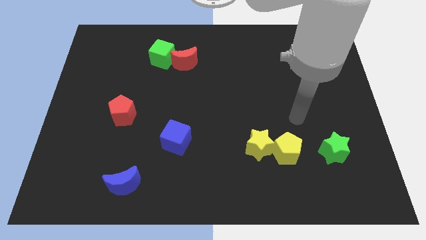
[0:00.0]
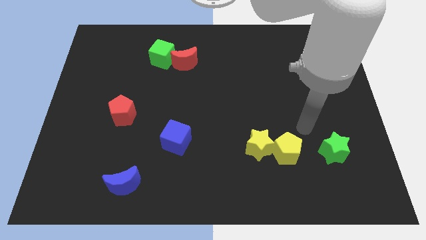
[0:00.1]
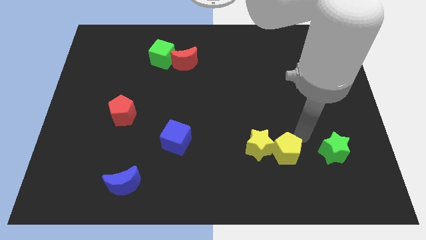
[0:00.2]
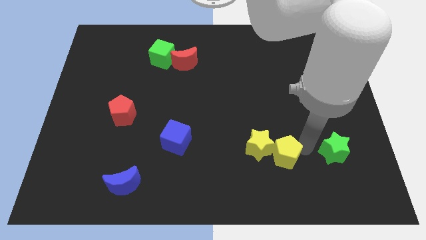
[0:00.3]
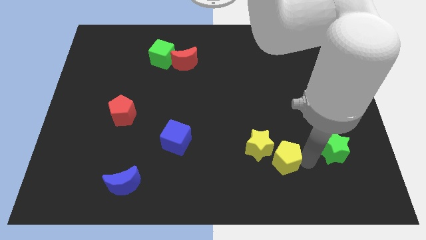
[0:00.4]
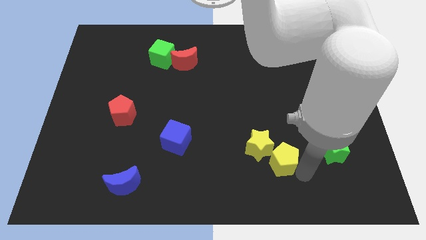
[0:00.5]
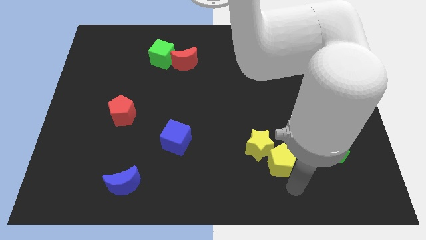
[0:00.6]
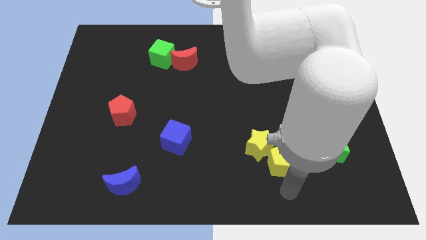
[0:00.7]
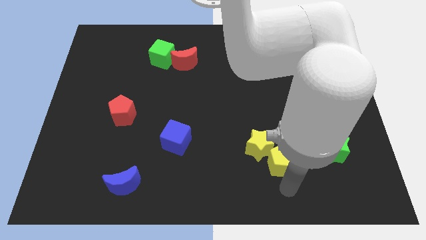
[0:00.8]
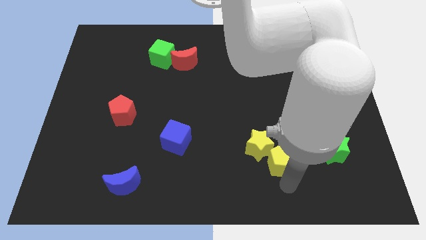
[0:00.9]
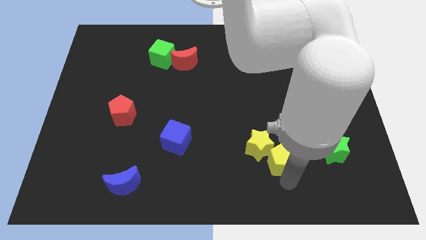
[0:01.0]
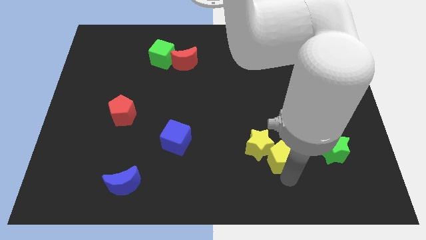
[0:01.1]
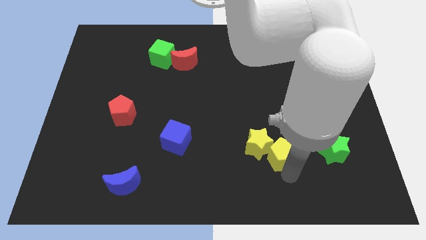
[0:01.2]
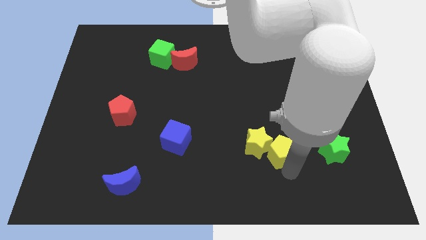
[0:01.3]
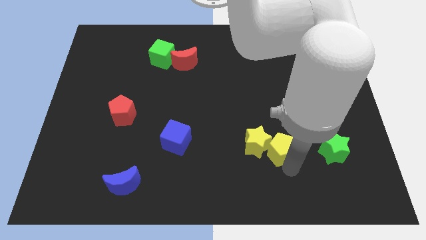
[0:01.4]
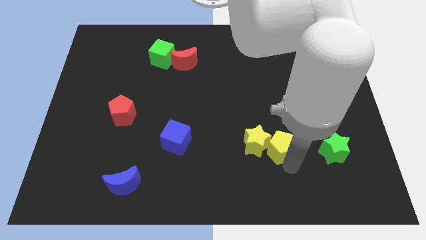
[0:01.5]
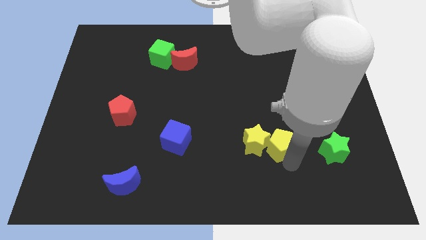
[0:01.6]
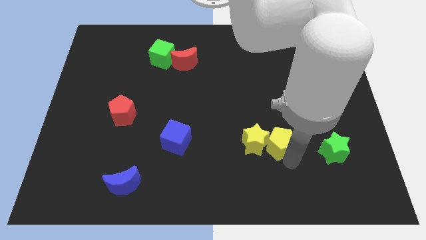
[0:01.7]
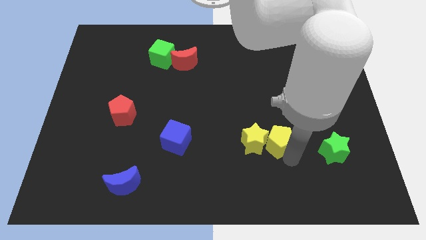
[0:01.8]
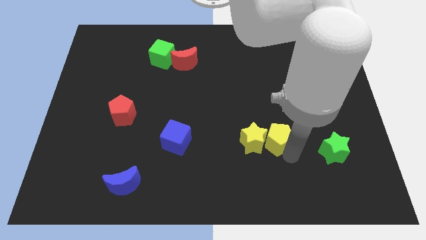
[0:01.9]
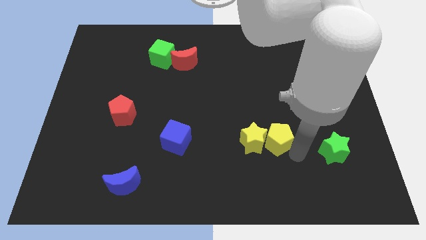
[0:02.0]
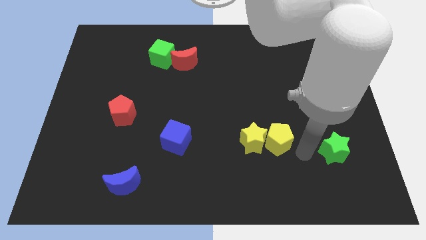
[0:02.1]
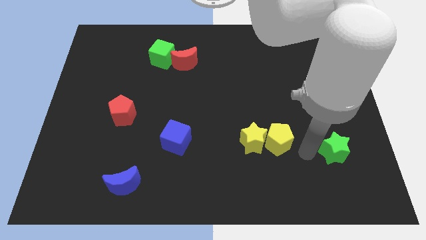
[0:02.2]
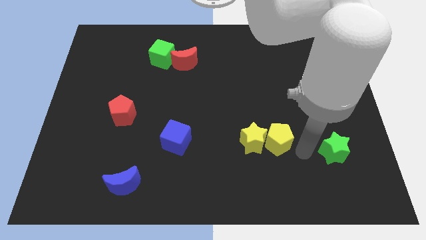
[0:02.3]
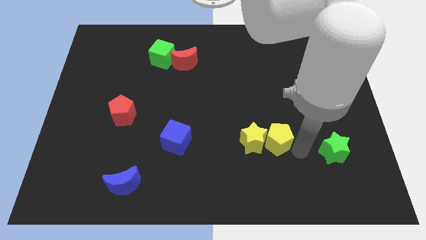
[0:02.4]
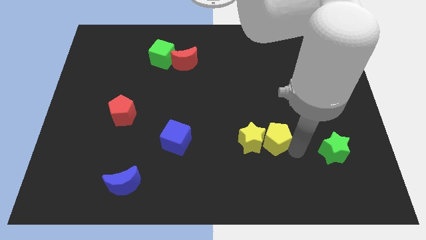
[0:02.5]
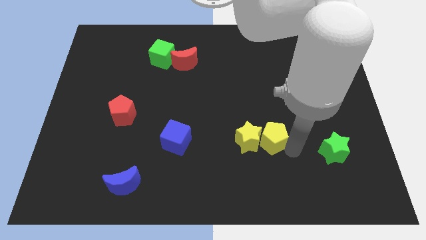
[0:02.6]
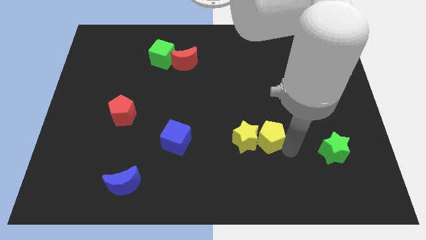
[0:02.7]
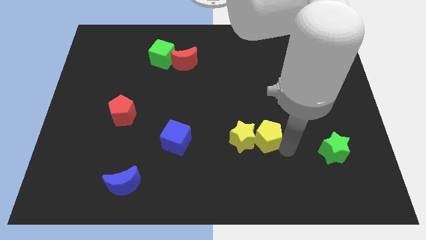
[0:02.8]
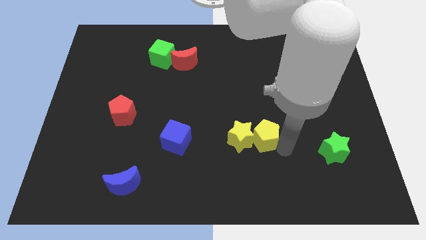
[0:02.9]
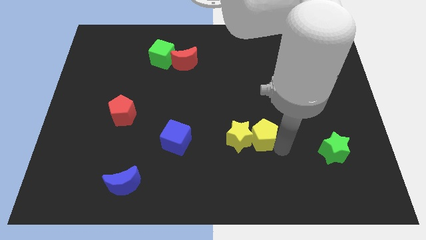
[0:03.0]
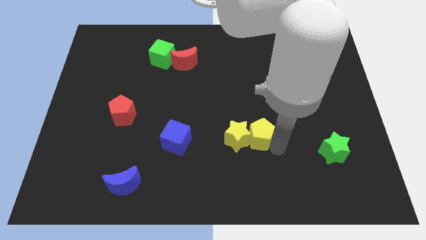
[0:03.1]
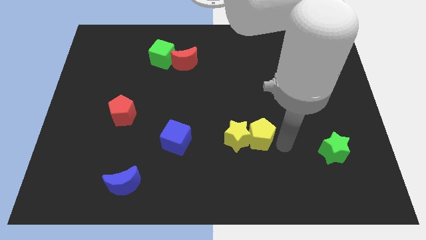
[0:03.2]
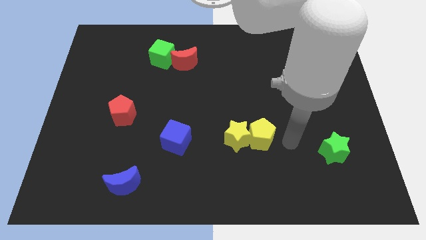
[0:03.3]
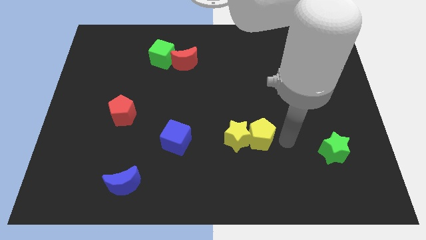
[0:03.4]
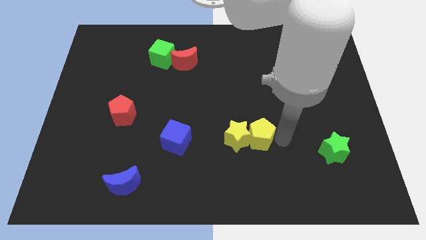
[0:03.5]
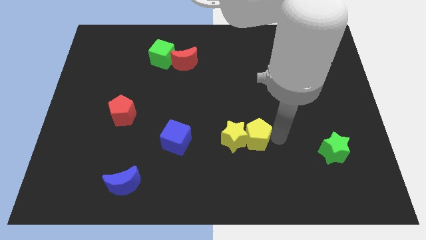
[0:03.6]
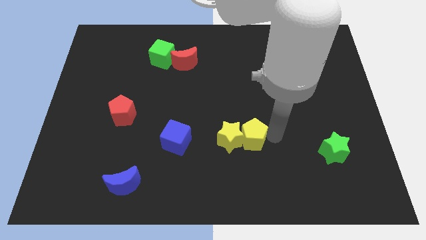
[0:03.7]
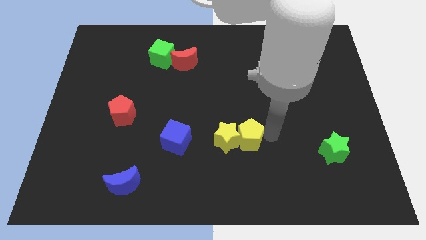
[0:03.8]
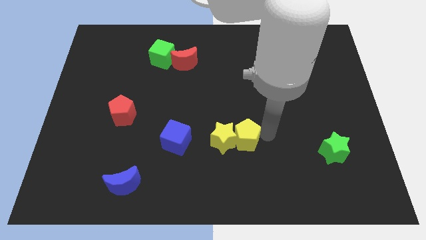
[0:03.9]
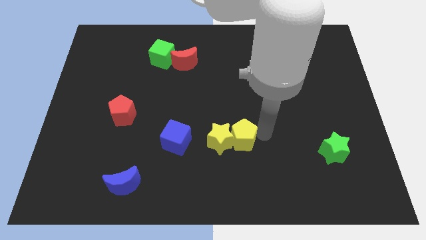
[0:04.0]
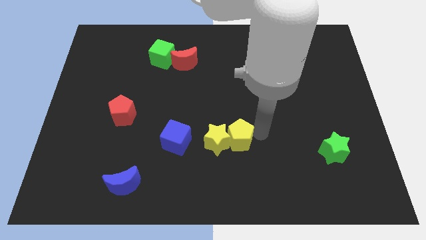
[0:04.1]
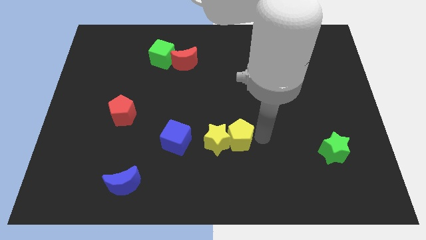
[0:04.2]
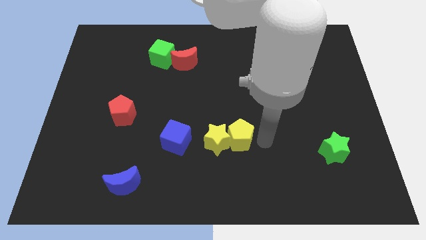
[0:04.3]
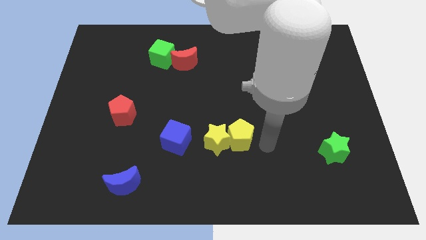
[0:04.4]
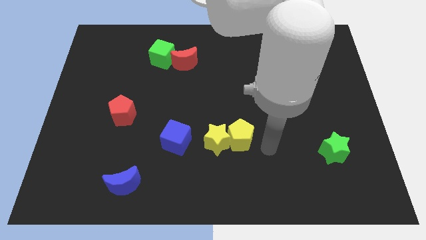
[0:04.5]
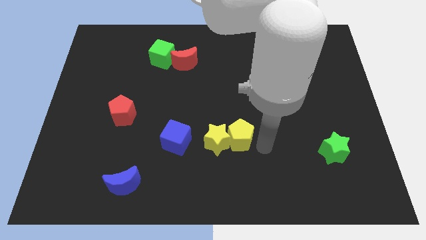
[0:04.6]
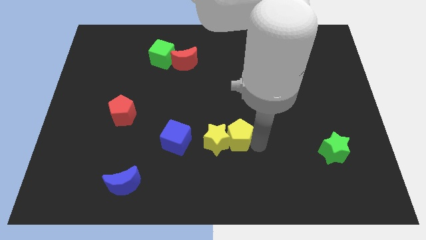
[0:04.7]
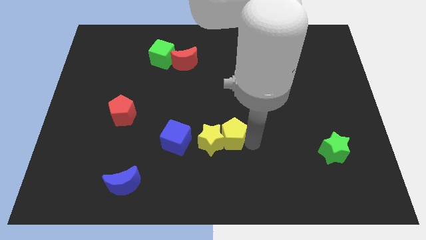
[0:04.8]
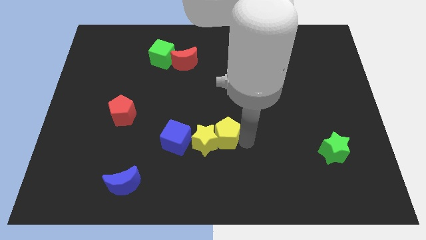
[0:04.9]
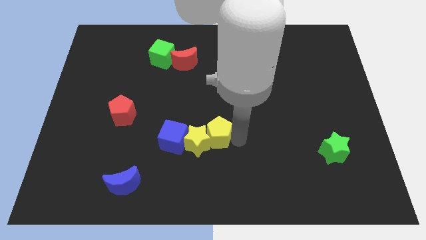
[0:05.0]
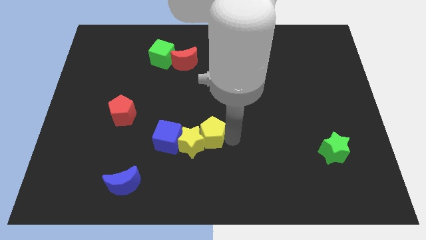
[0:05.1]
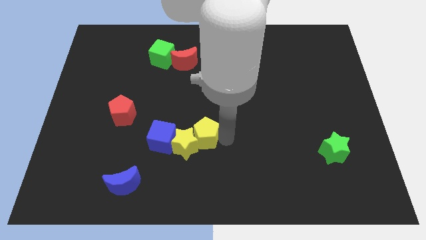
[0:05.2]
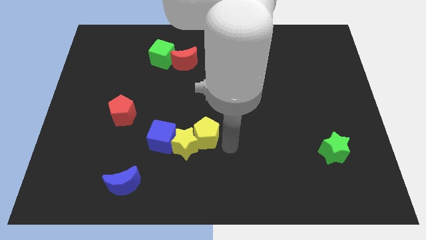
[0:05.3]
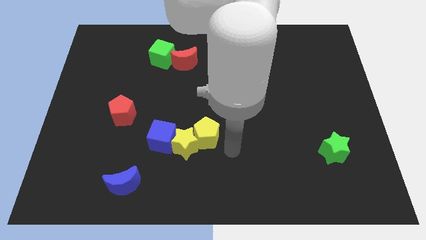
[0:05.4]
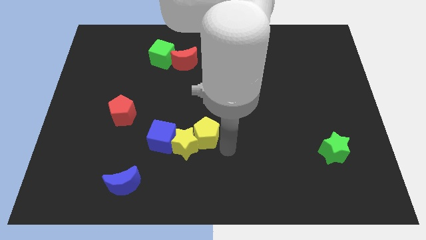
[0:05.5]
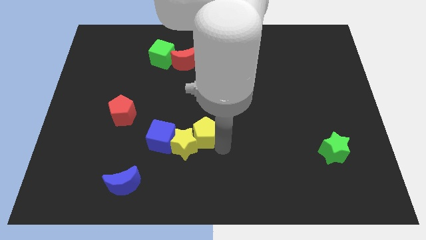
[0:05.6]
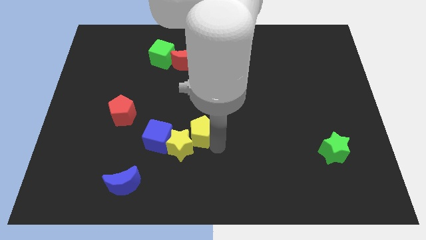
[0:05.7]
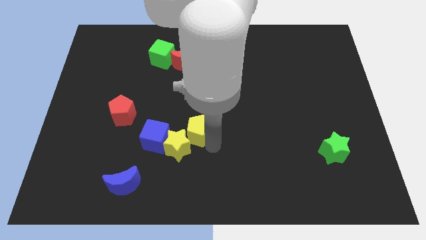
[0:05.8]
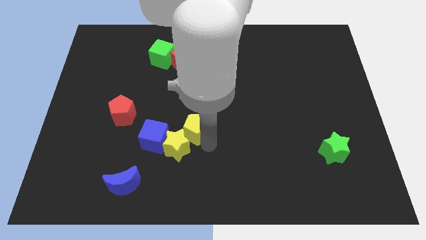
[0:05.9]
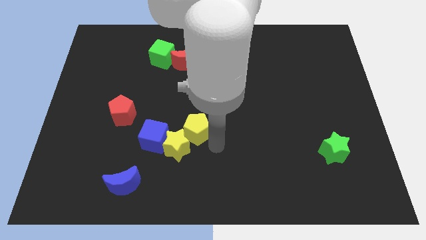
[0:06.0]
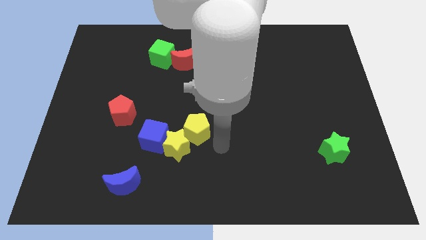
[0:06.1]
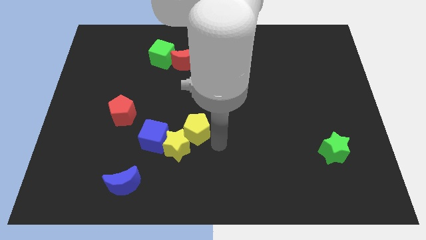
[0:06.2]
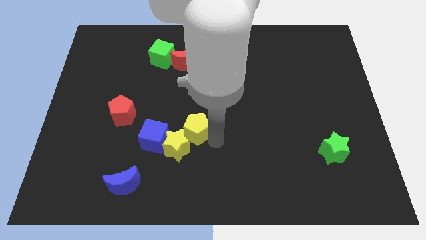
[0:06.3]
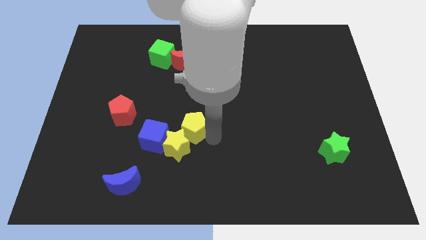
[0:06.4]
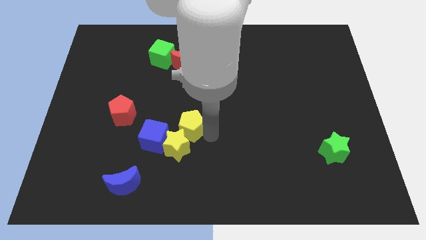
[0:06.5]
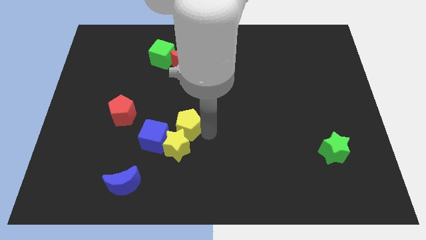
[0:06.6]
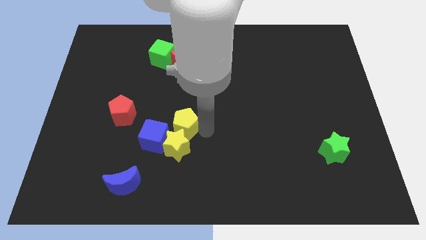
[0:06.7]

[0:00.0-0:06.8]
move the yellow pentagon to the right of the red pentagon

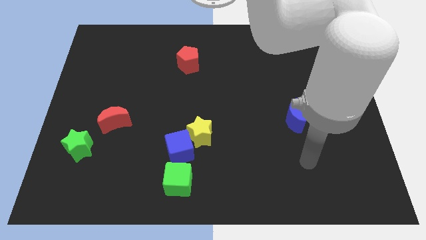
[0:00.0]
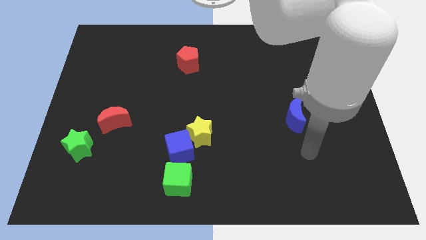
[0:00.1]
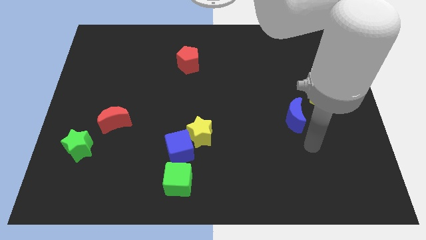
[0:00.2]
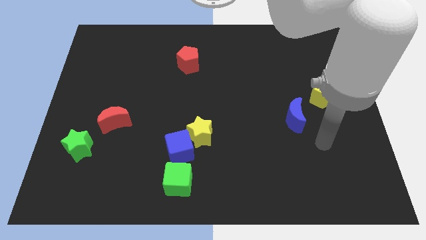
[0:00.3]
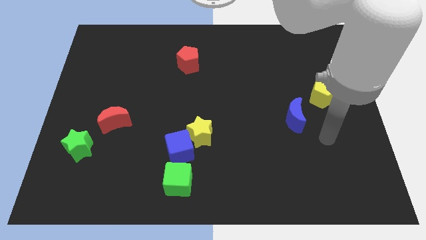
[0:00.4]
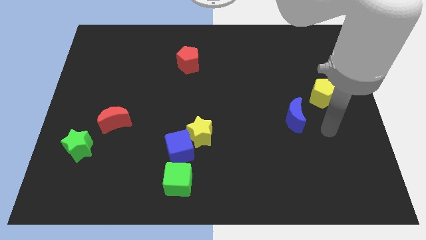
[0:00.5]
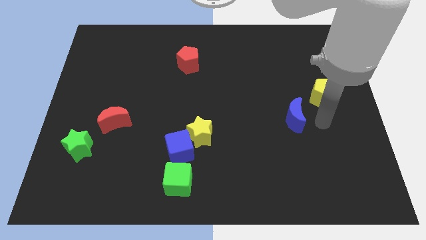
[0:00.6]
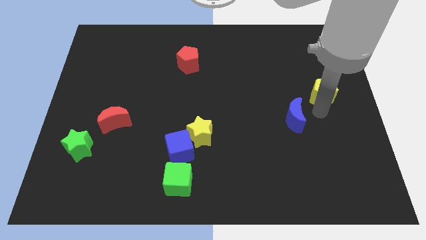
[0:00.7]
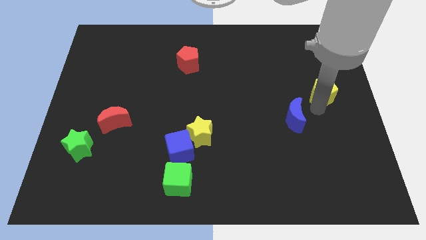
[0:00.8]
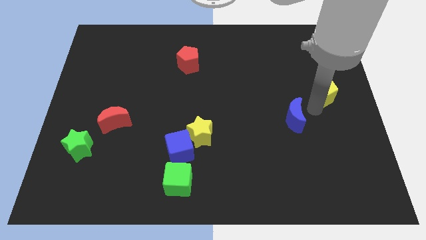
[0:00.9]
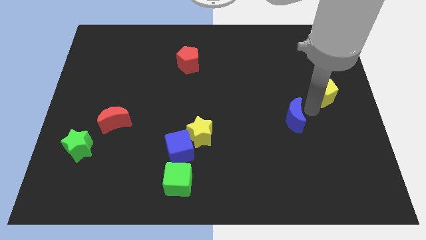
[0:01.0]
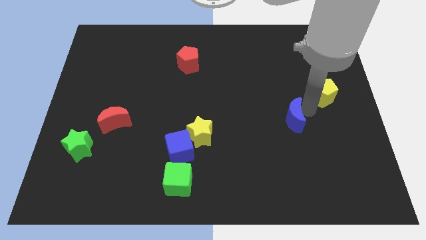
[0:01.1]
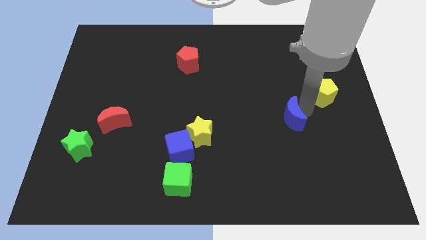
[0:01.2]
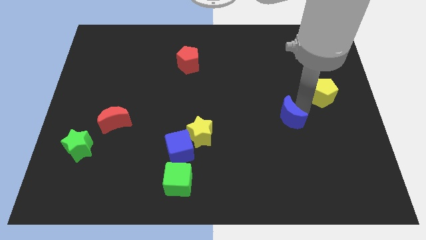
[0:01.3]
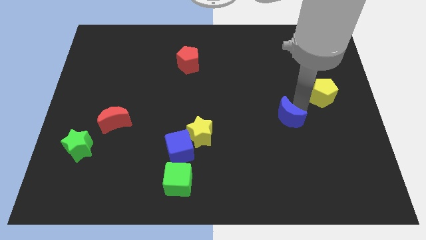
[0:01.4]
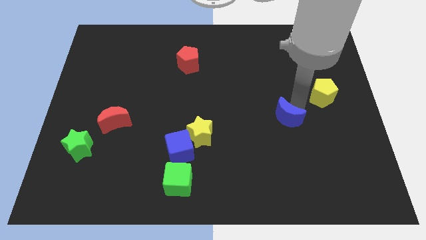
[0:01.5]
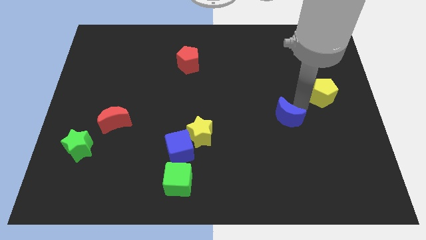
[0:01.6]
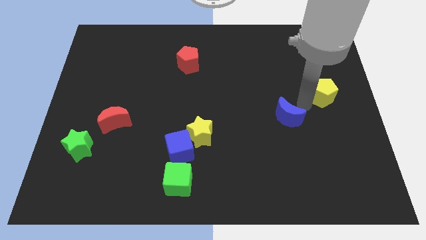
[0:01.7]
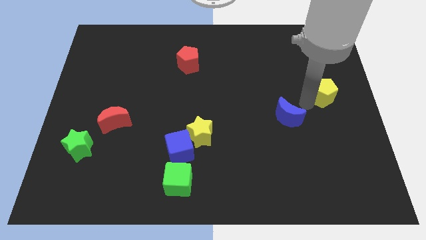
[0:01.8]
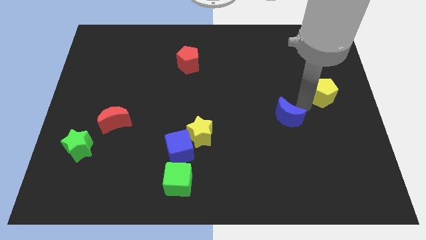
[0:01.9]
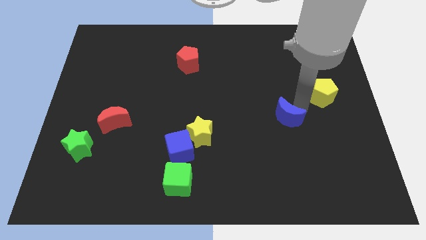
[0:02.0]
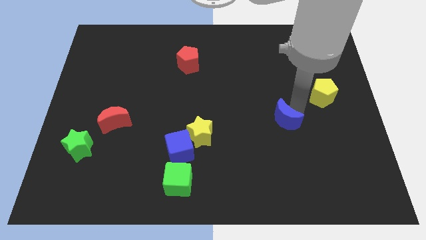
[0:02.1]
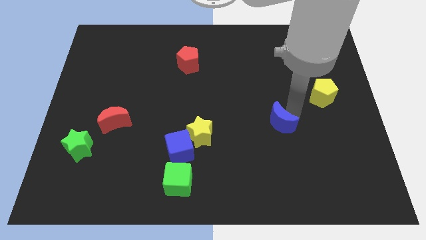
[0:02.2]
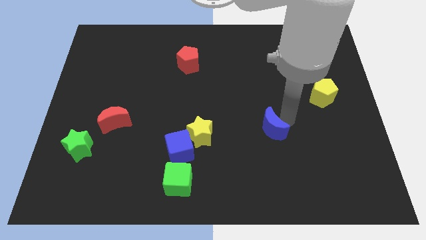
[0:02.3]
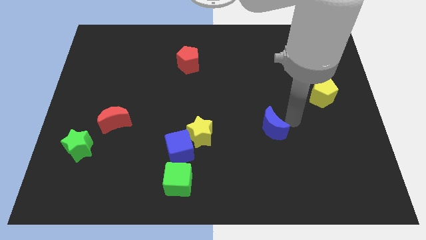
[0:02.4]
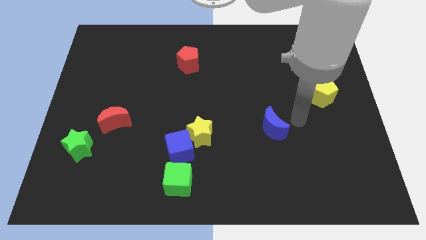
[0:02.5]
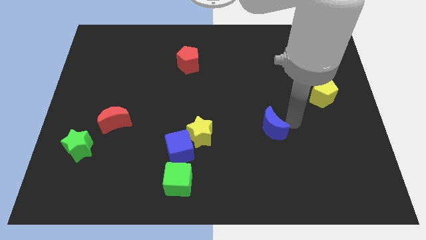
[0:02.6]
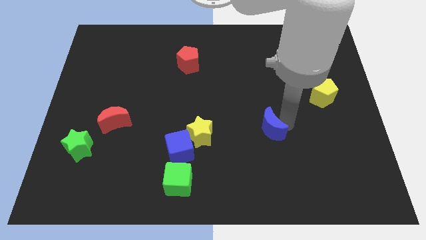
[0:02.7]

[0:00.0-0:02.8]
move the blue moon just right of the yellow star
